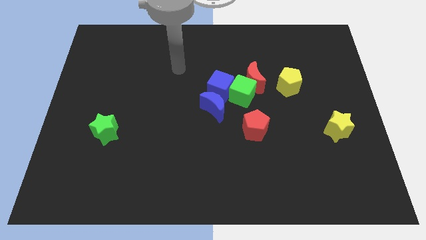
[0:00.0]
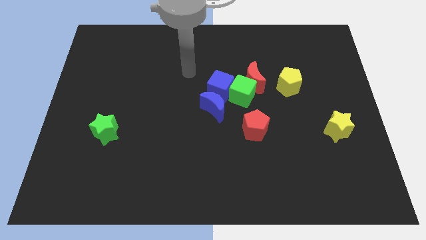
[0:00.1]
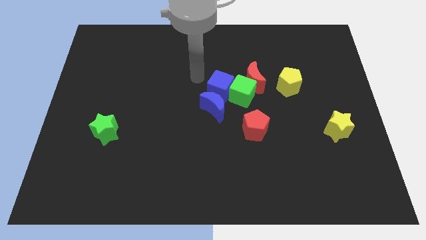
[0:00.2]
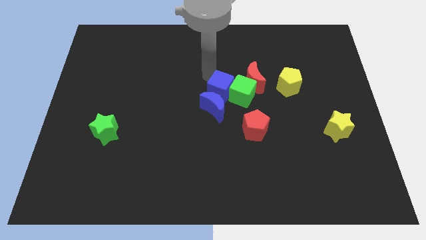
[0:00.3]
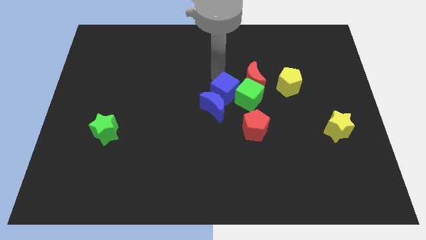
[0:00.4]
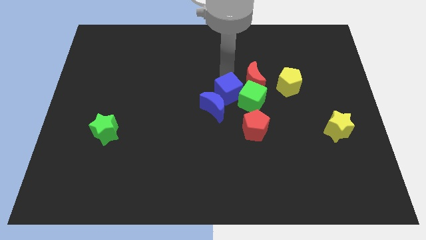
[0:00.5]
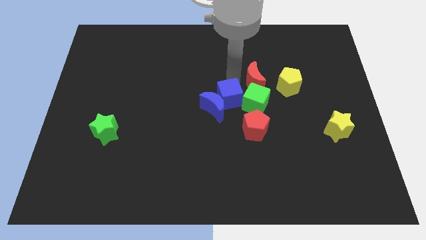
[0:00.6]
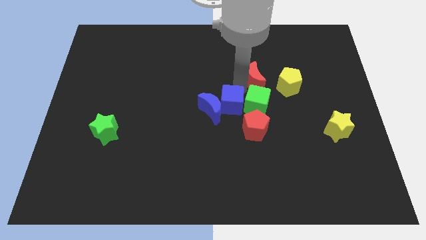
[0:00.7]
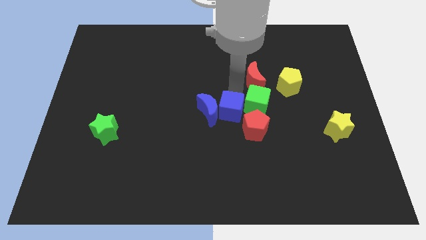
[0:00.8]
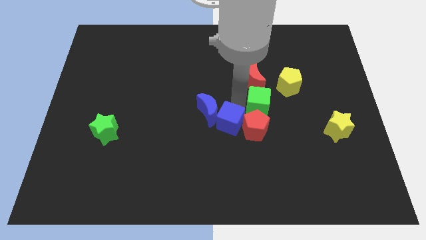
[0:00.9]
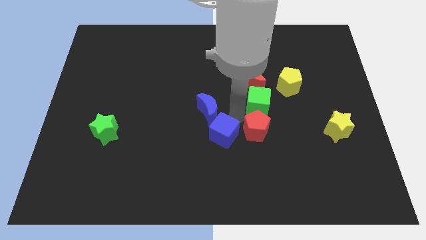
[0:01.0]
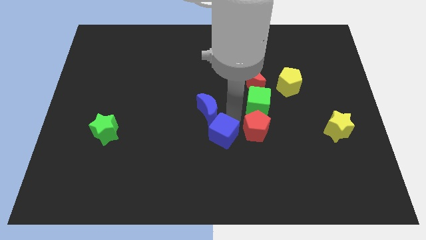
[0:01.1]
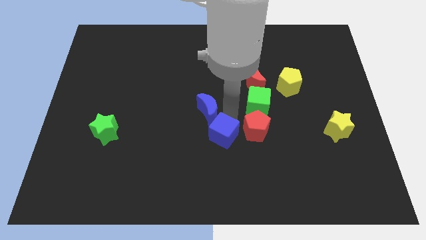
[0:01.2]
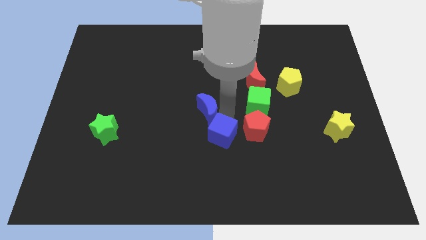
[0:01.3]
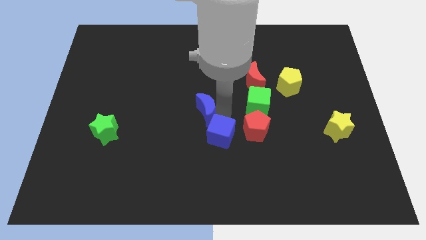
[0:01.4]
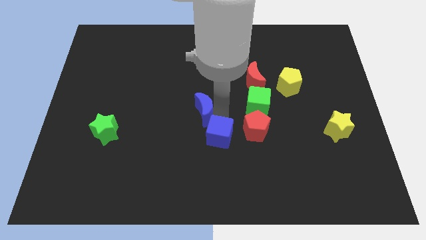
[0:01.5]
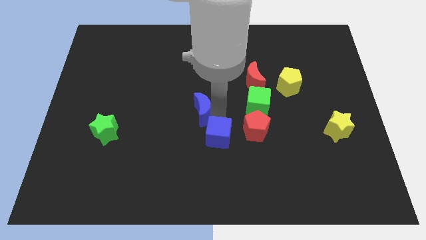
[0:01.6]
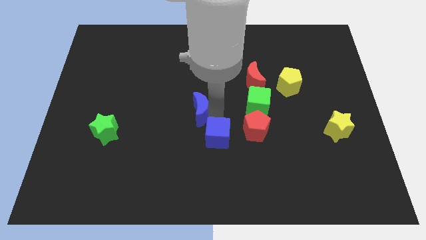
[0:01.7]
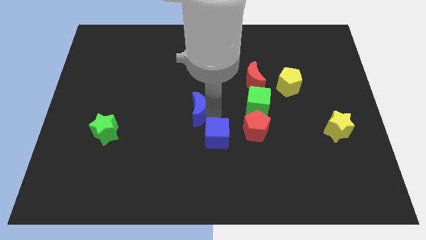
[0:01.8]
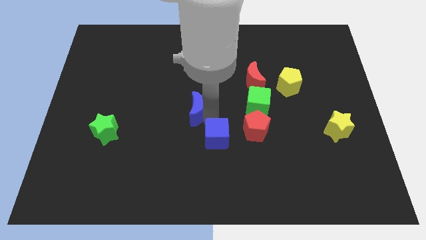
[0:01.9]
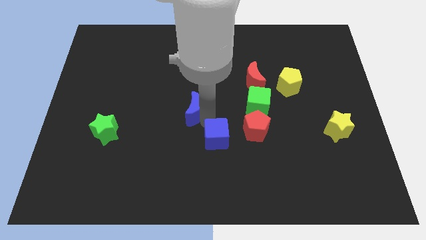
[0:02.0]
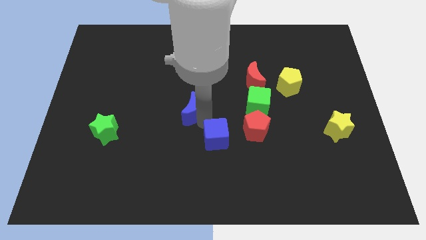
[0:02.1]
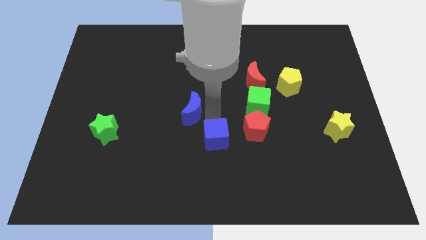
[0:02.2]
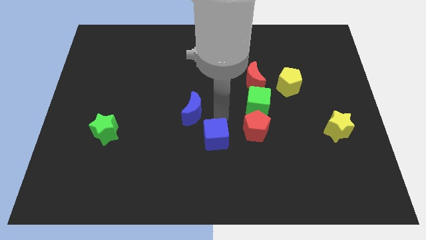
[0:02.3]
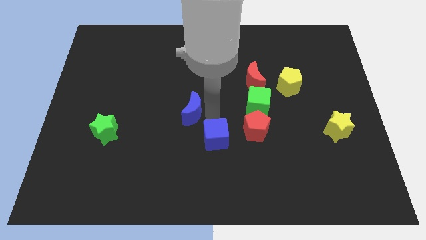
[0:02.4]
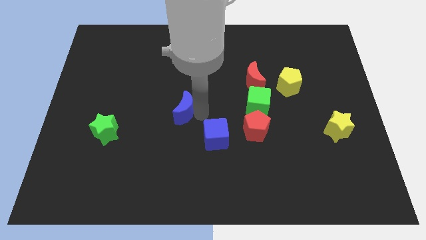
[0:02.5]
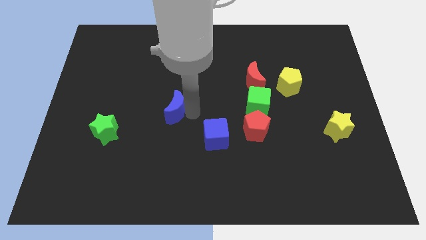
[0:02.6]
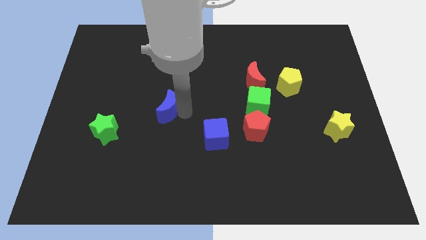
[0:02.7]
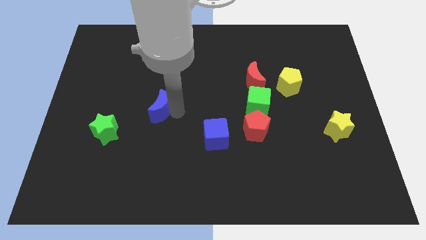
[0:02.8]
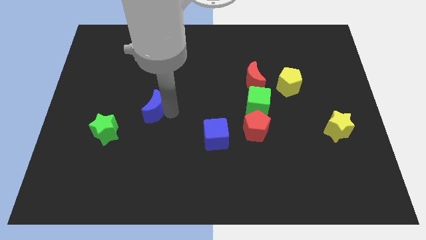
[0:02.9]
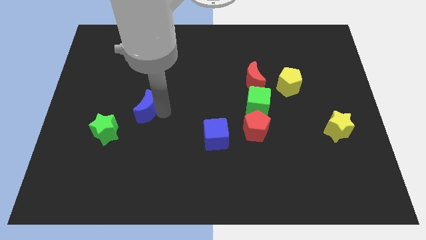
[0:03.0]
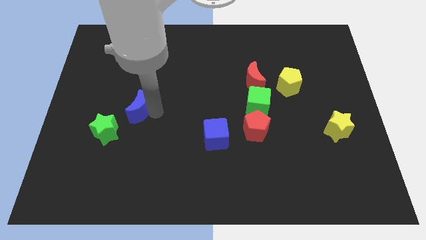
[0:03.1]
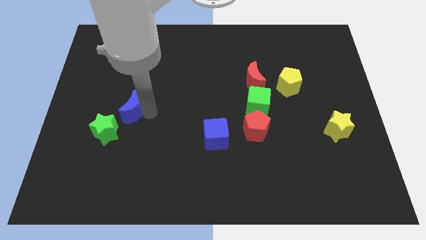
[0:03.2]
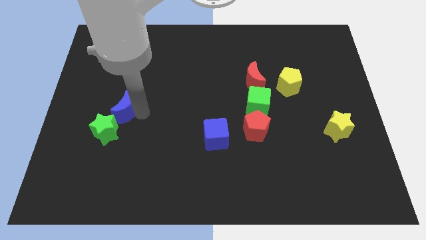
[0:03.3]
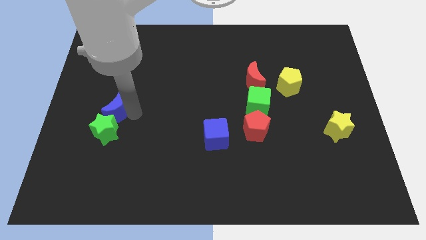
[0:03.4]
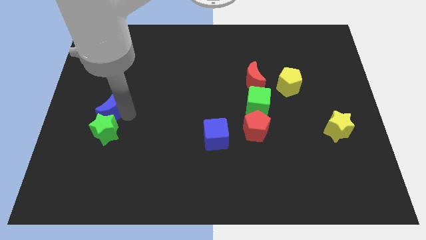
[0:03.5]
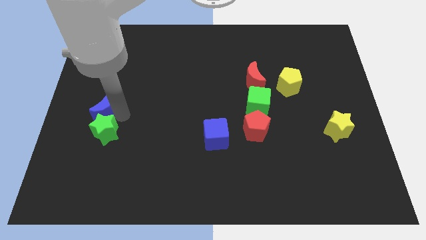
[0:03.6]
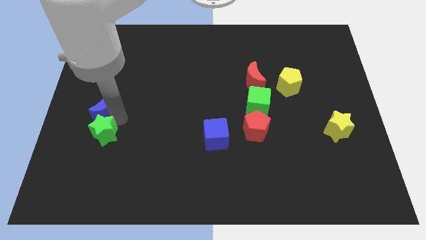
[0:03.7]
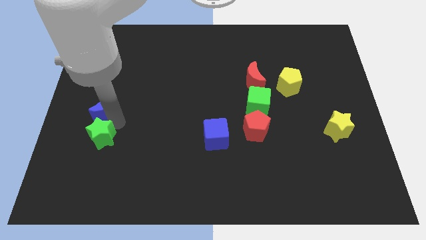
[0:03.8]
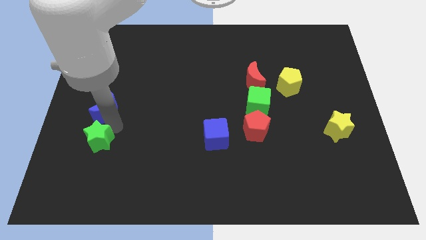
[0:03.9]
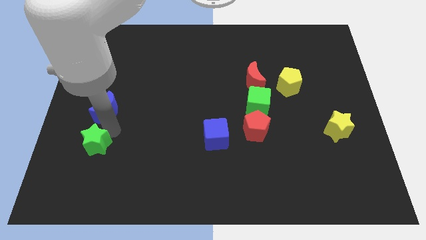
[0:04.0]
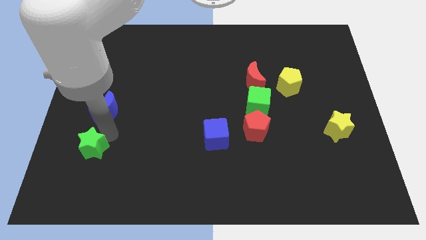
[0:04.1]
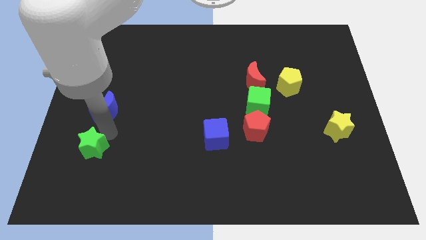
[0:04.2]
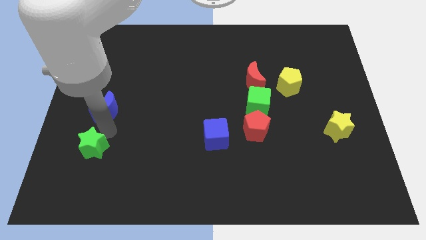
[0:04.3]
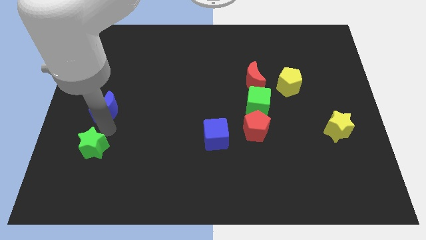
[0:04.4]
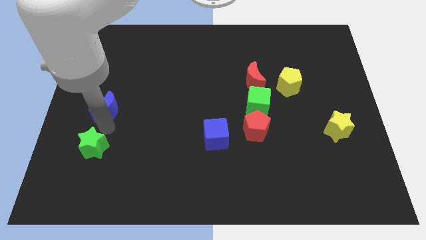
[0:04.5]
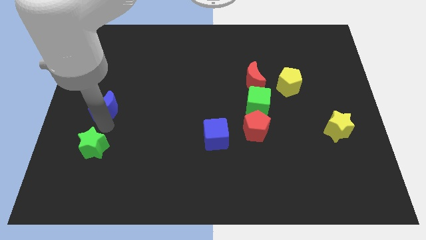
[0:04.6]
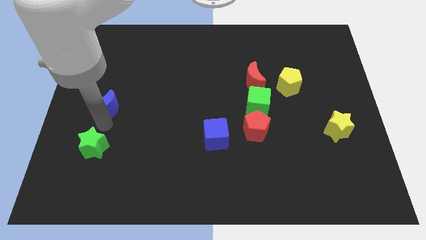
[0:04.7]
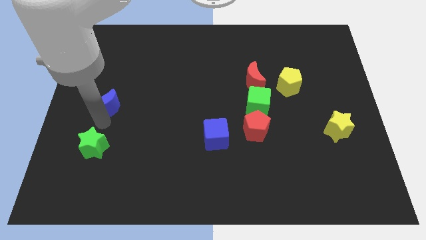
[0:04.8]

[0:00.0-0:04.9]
put the blue moon to the center left

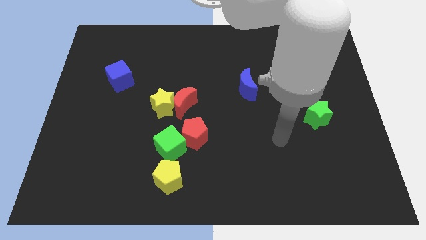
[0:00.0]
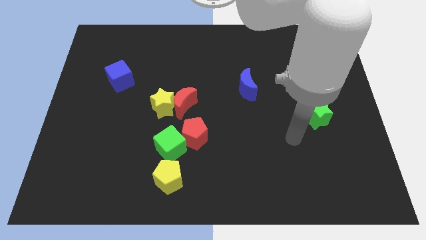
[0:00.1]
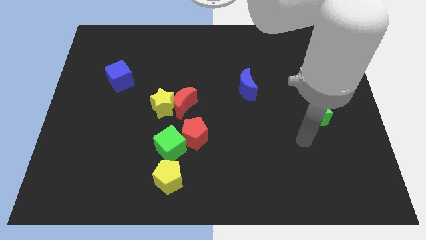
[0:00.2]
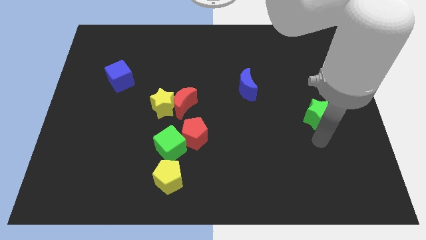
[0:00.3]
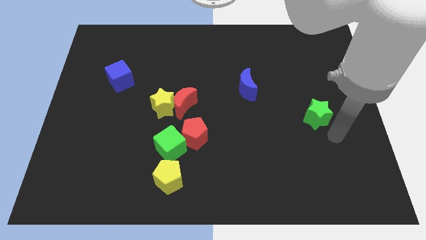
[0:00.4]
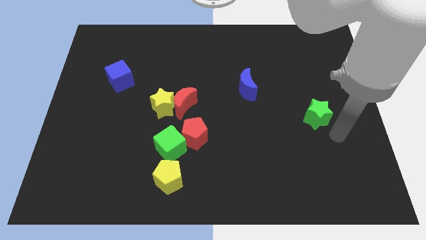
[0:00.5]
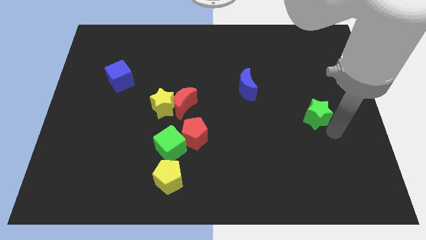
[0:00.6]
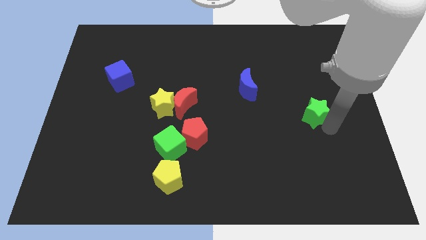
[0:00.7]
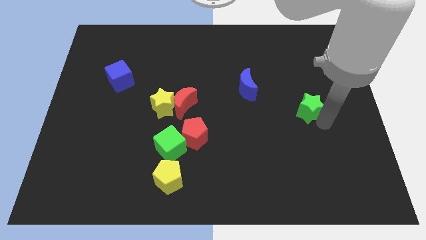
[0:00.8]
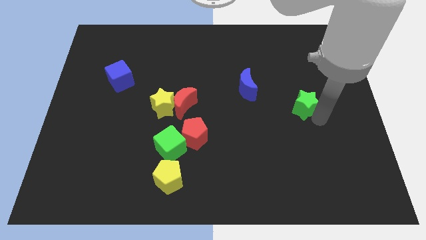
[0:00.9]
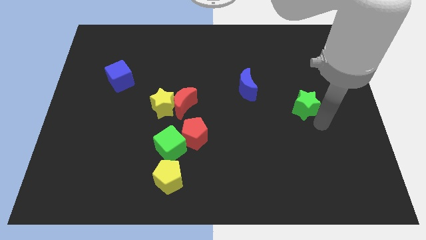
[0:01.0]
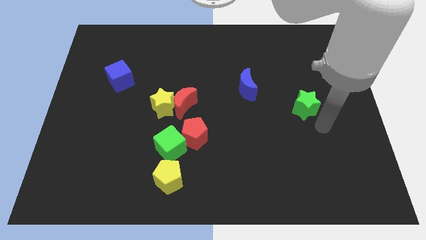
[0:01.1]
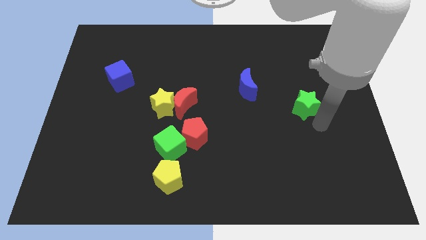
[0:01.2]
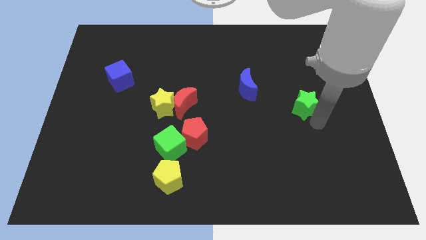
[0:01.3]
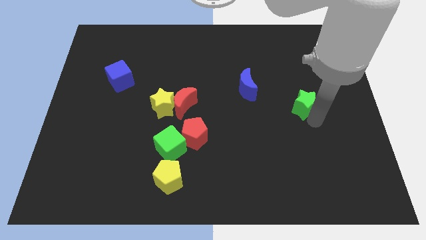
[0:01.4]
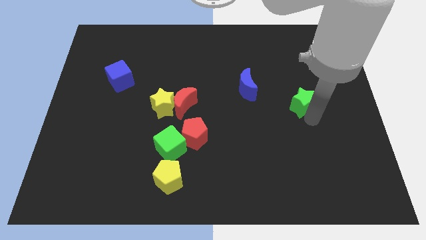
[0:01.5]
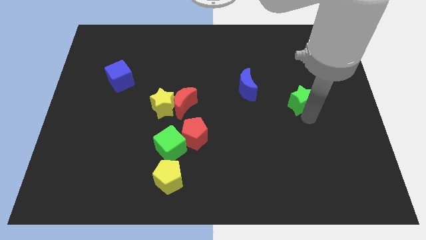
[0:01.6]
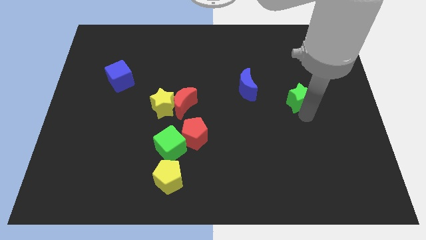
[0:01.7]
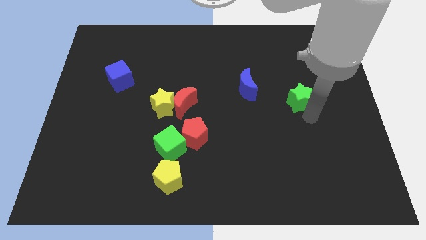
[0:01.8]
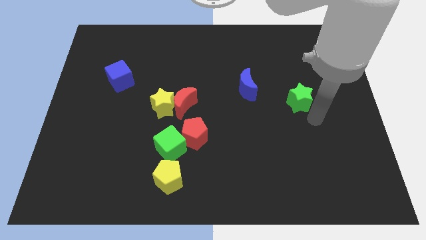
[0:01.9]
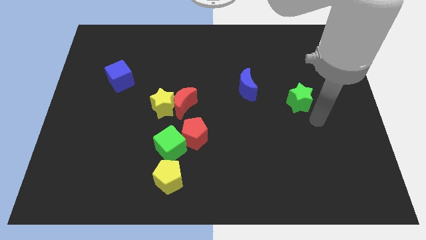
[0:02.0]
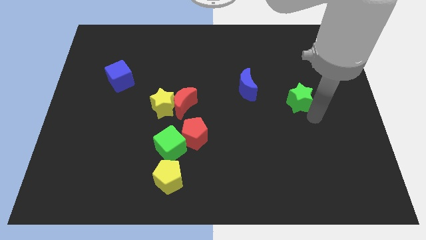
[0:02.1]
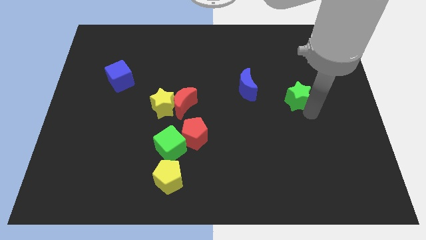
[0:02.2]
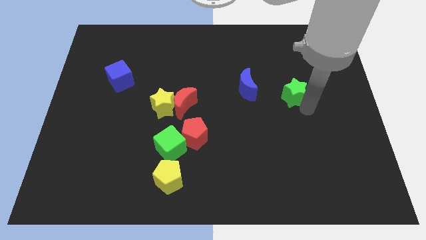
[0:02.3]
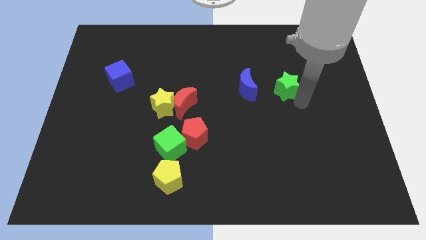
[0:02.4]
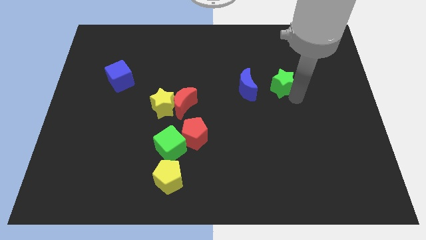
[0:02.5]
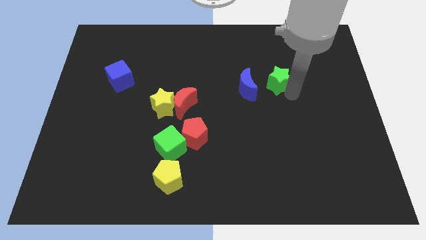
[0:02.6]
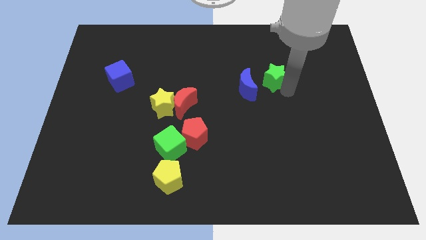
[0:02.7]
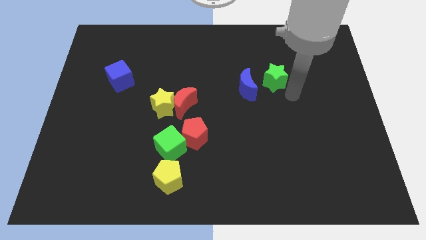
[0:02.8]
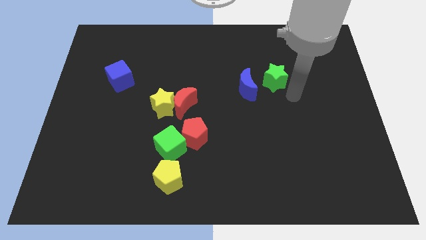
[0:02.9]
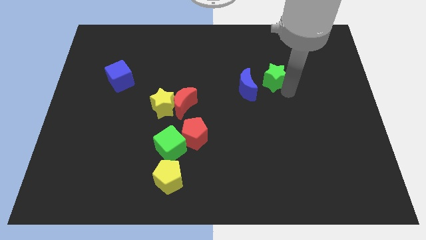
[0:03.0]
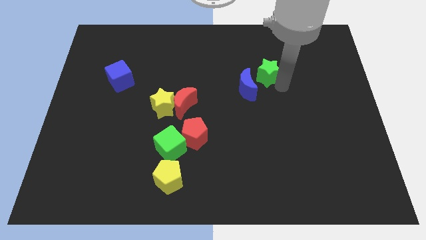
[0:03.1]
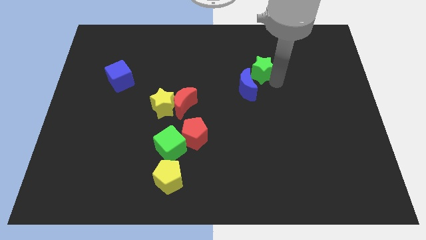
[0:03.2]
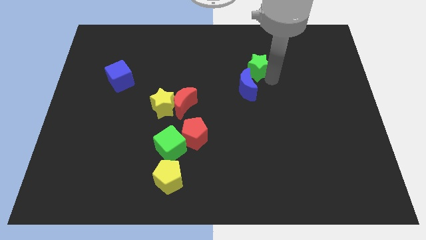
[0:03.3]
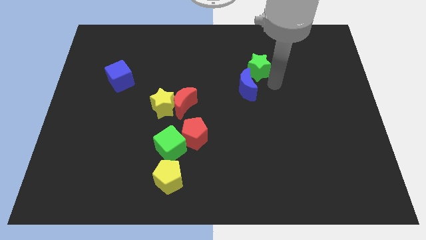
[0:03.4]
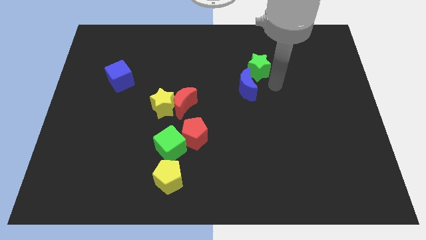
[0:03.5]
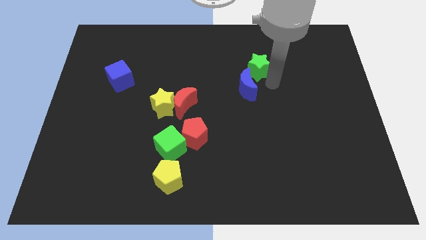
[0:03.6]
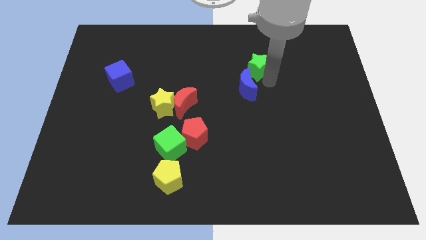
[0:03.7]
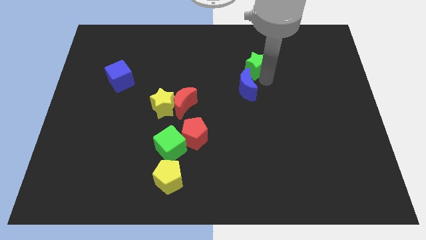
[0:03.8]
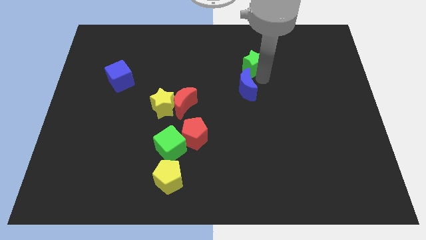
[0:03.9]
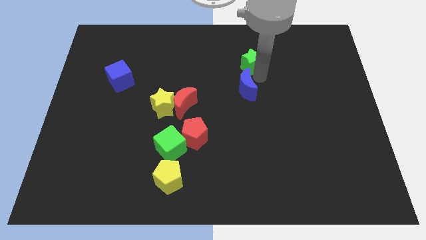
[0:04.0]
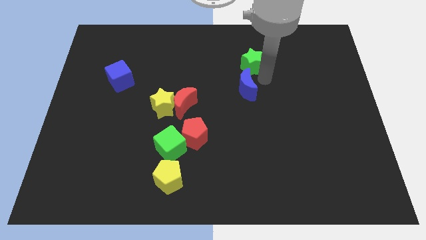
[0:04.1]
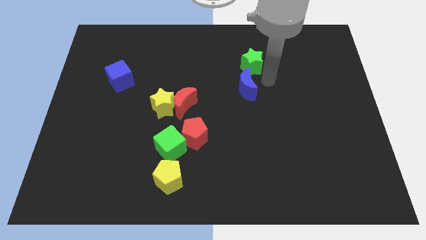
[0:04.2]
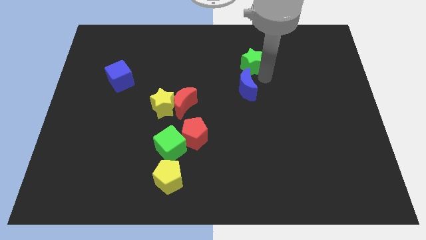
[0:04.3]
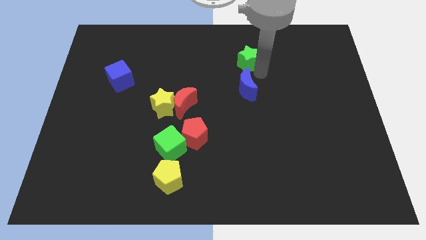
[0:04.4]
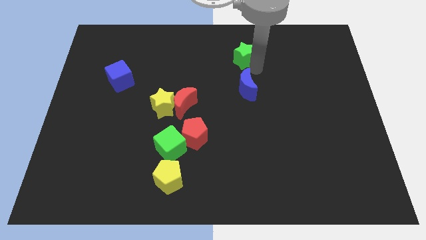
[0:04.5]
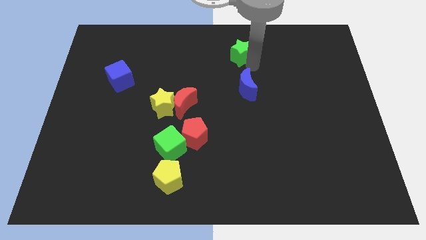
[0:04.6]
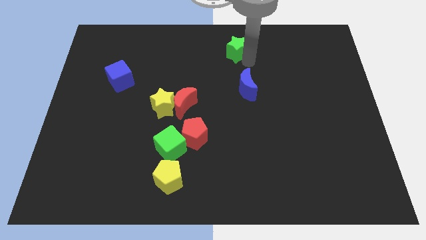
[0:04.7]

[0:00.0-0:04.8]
move the green star to the top side
